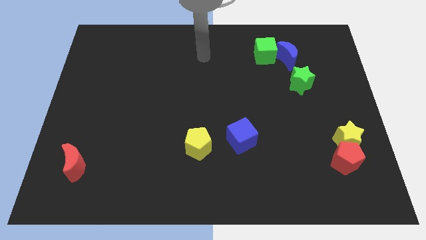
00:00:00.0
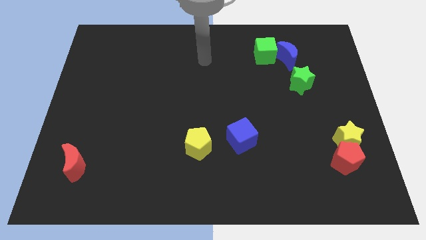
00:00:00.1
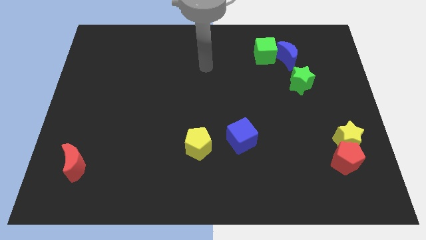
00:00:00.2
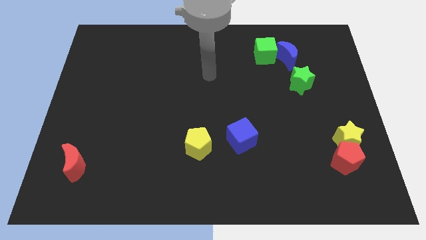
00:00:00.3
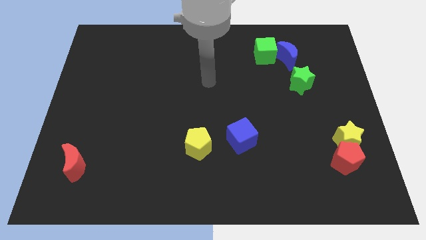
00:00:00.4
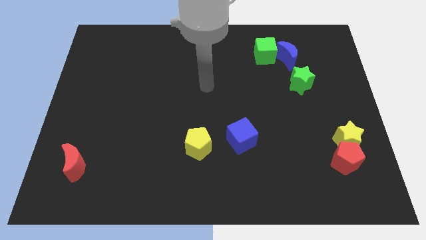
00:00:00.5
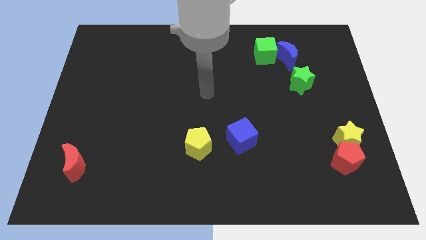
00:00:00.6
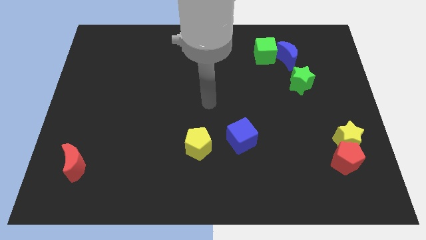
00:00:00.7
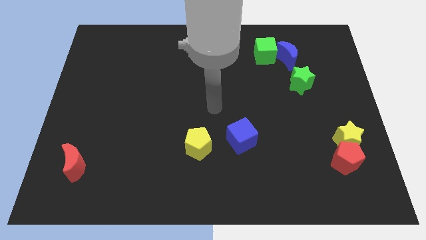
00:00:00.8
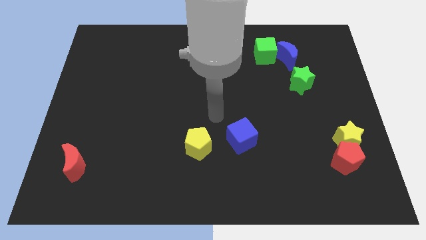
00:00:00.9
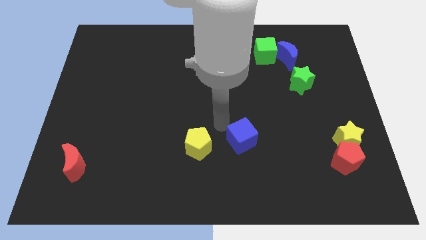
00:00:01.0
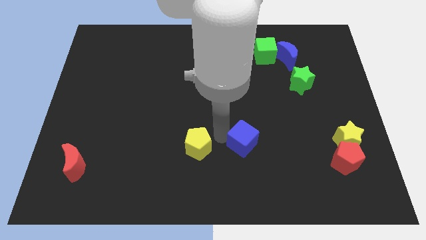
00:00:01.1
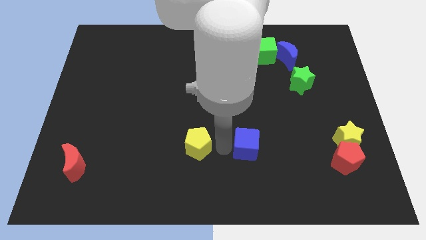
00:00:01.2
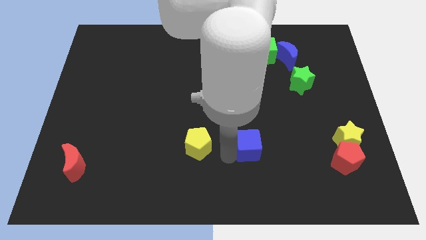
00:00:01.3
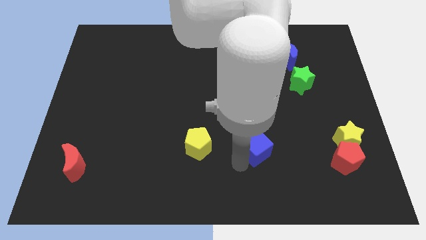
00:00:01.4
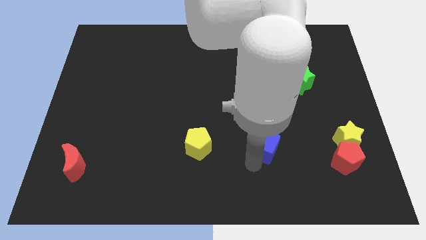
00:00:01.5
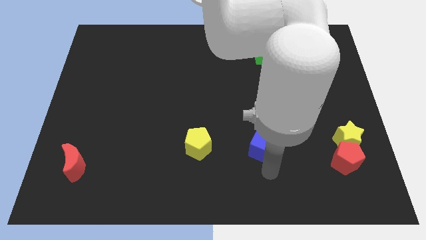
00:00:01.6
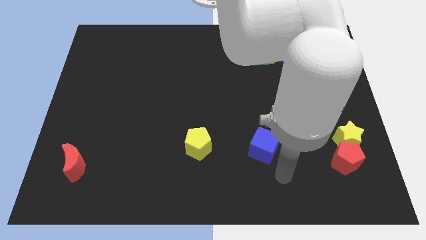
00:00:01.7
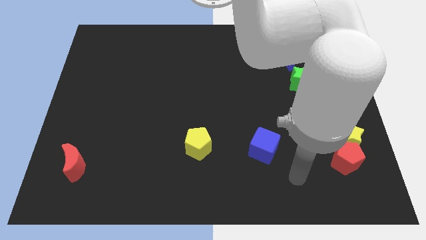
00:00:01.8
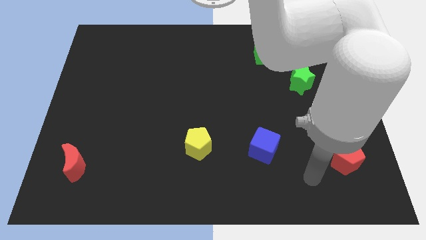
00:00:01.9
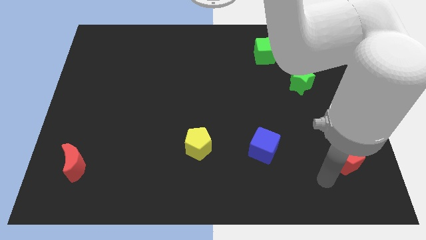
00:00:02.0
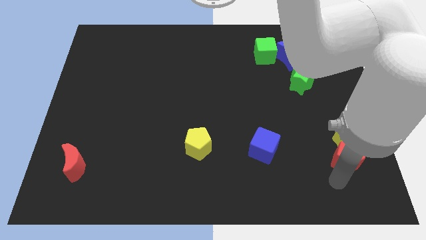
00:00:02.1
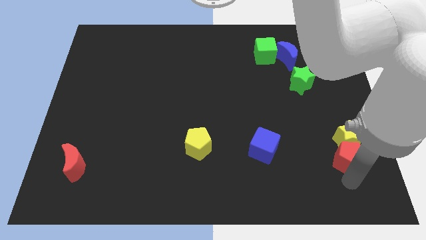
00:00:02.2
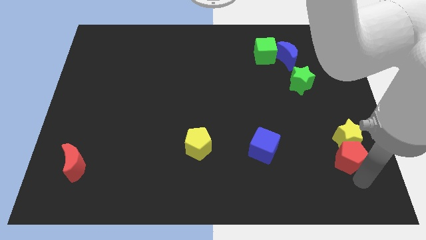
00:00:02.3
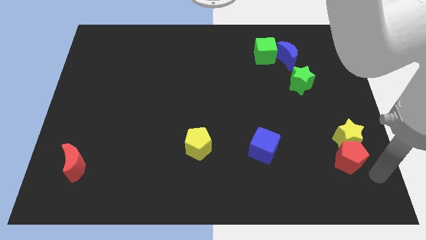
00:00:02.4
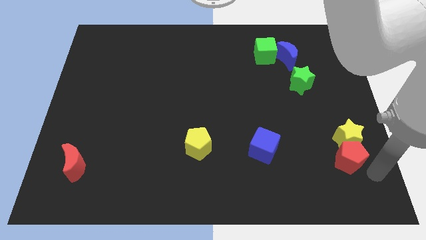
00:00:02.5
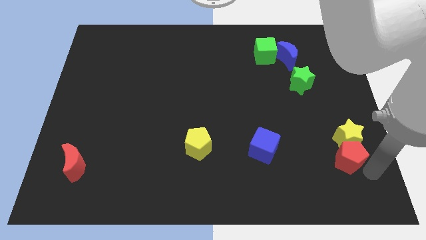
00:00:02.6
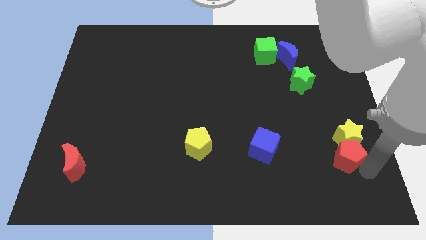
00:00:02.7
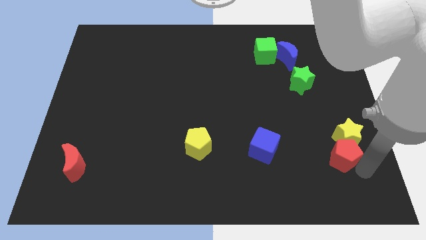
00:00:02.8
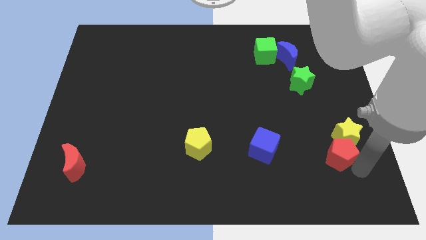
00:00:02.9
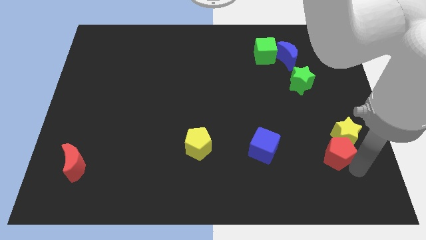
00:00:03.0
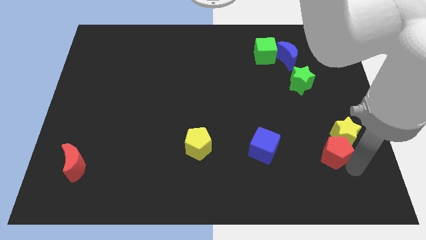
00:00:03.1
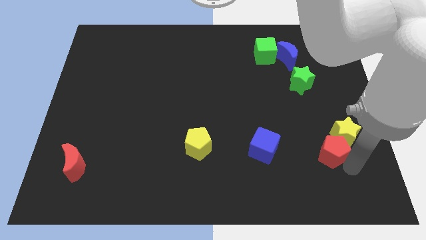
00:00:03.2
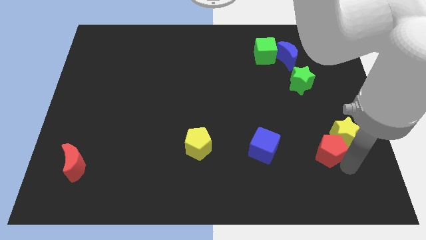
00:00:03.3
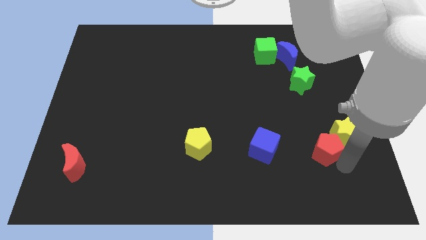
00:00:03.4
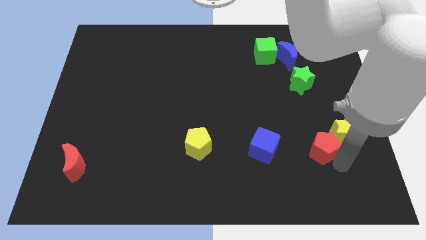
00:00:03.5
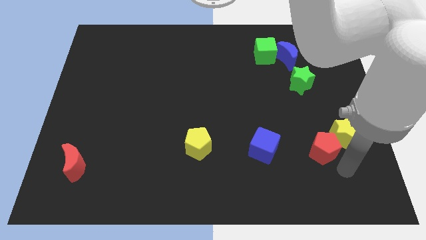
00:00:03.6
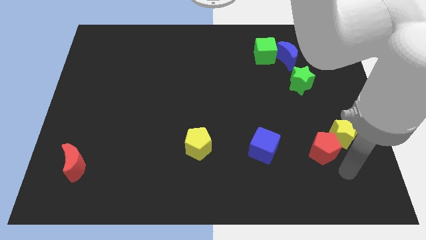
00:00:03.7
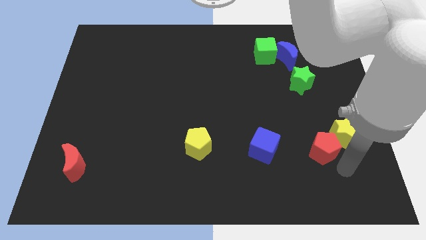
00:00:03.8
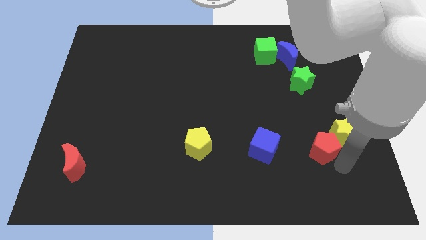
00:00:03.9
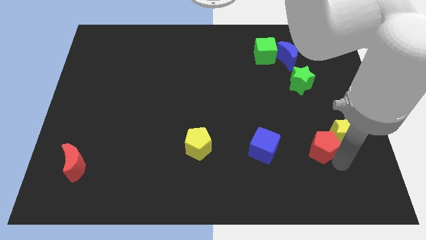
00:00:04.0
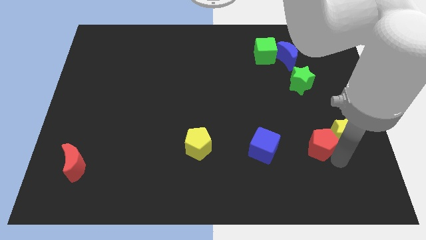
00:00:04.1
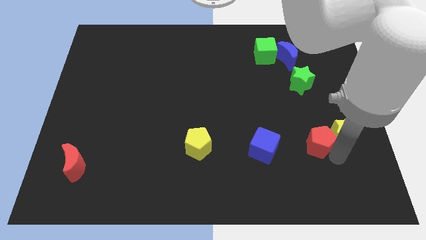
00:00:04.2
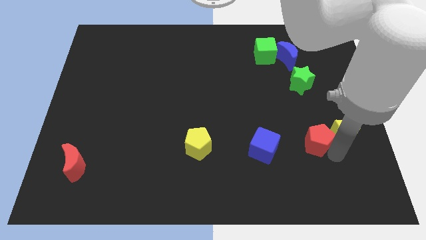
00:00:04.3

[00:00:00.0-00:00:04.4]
slide the red pentagon a little diagonally up and to the left

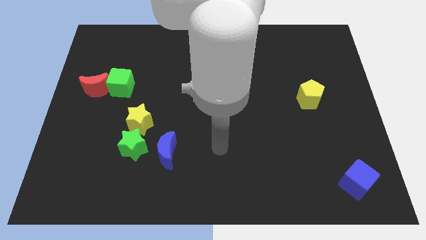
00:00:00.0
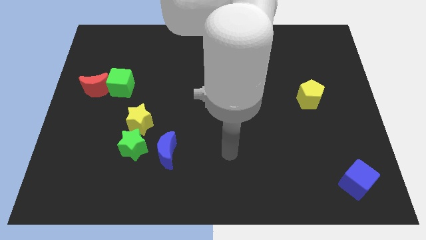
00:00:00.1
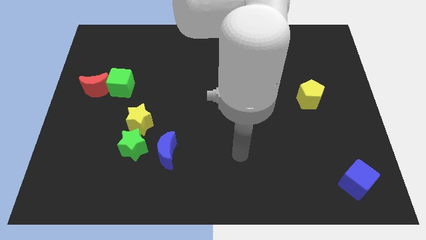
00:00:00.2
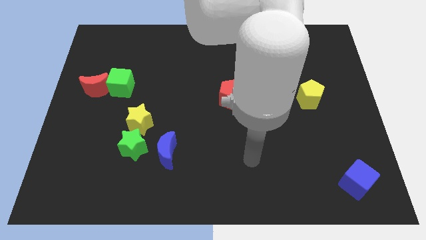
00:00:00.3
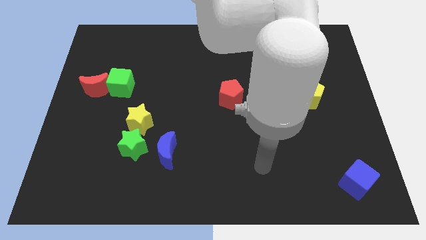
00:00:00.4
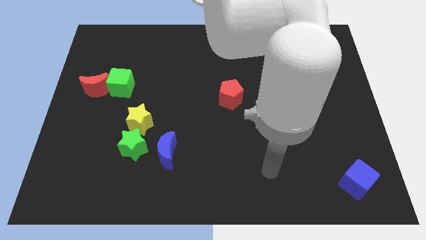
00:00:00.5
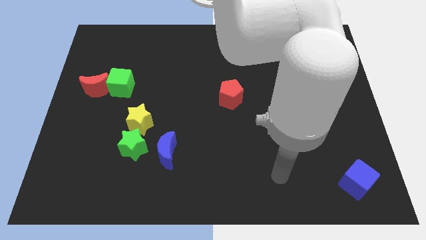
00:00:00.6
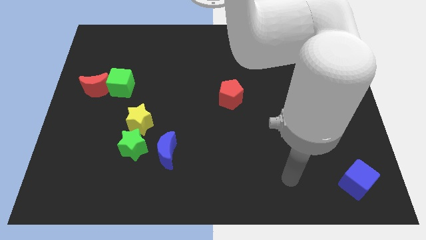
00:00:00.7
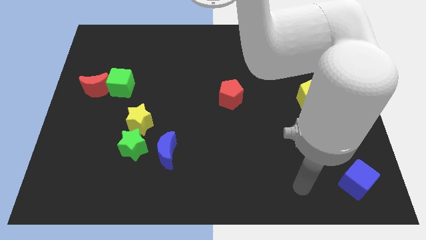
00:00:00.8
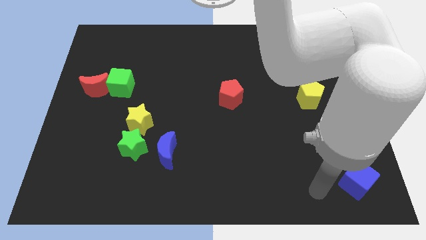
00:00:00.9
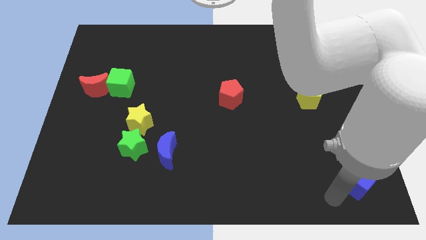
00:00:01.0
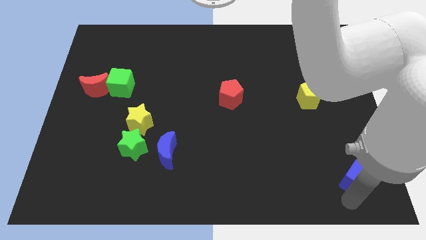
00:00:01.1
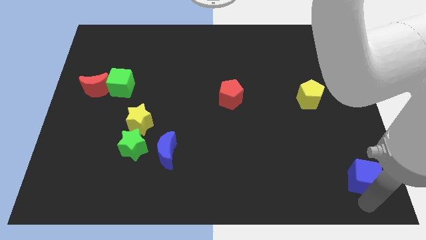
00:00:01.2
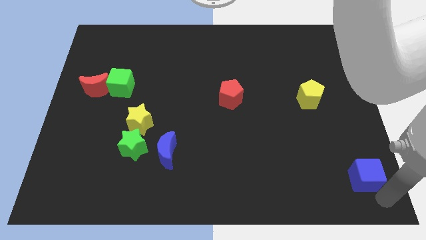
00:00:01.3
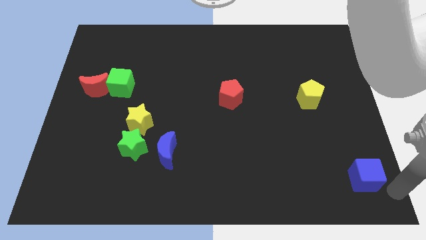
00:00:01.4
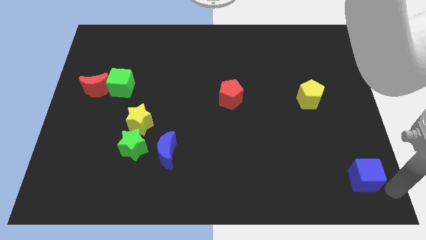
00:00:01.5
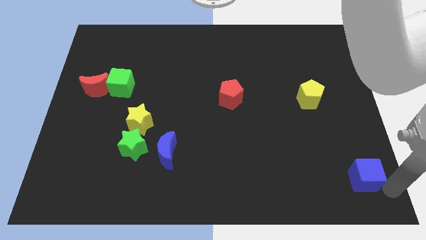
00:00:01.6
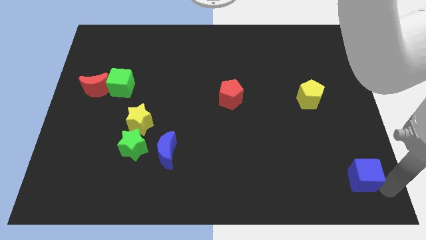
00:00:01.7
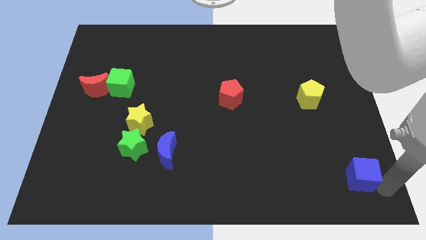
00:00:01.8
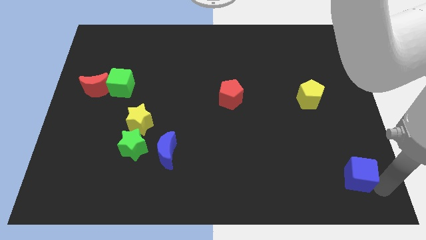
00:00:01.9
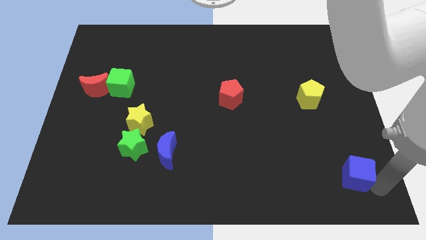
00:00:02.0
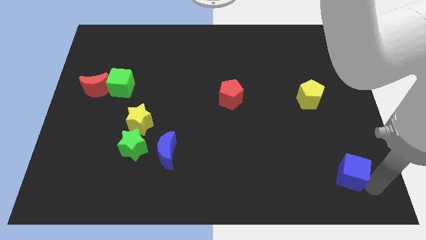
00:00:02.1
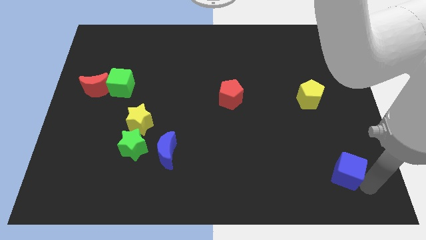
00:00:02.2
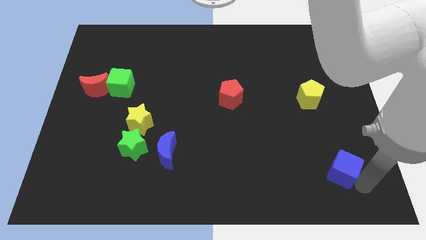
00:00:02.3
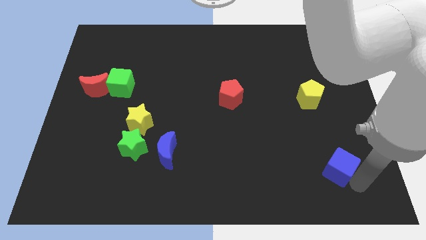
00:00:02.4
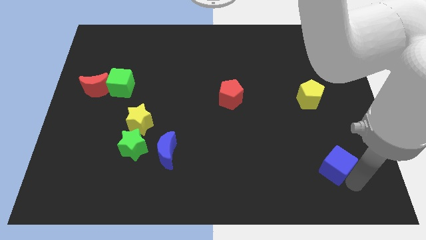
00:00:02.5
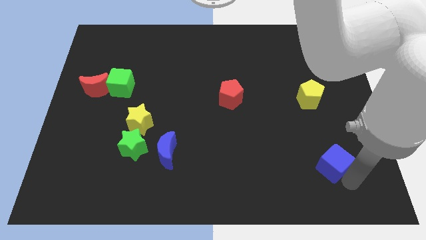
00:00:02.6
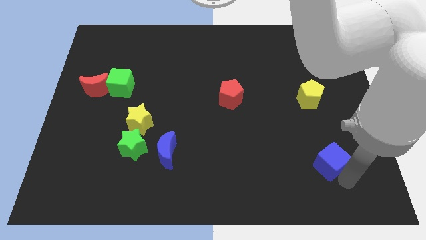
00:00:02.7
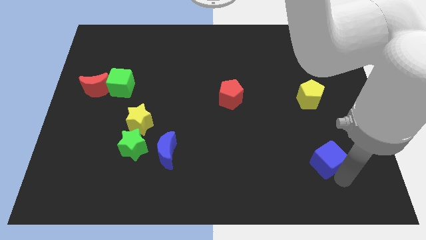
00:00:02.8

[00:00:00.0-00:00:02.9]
slightly slide the blue cube up and left

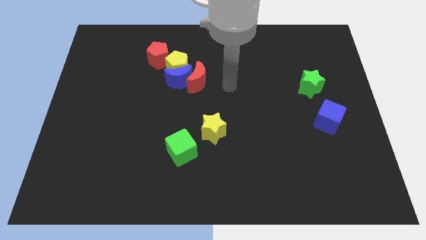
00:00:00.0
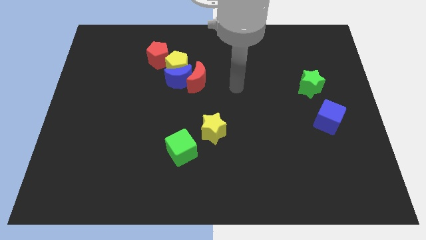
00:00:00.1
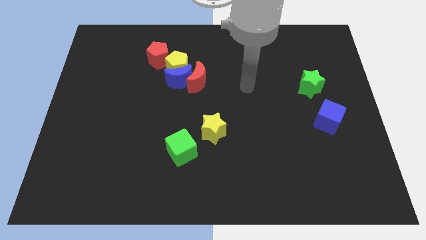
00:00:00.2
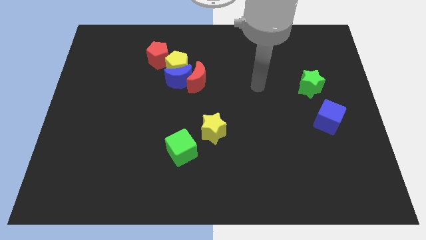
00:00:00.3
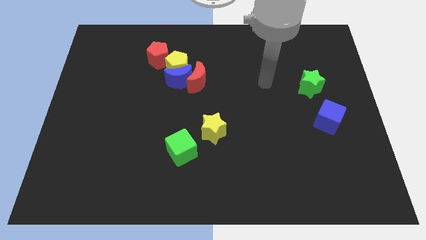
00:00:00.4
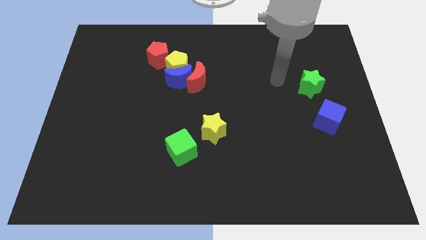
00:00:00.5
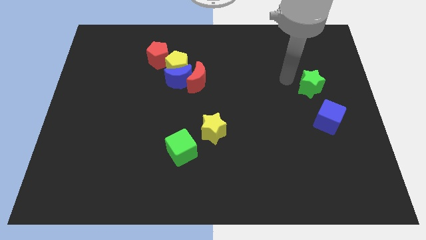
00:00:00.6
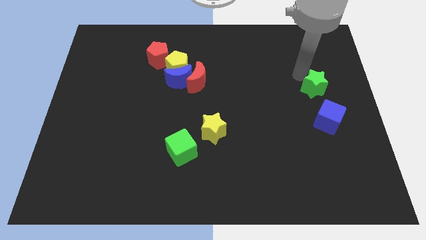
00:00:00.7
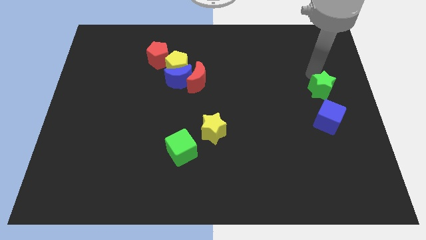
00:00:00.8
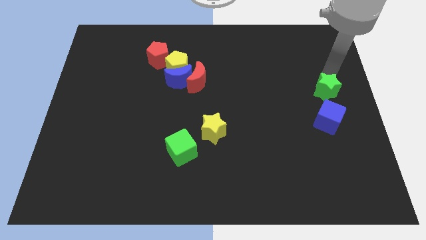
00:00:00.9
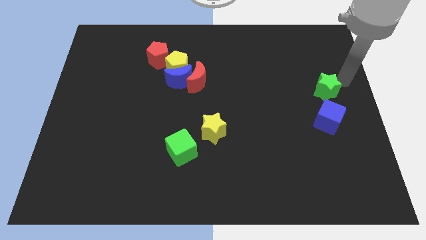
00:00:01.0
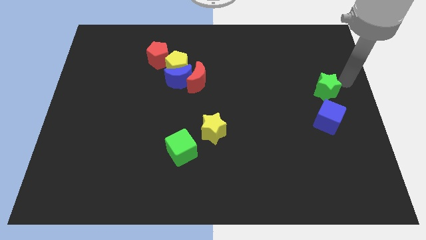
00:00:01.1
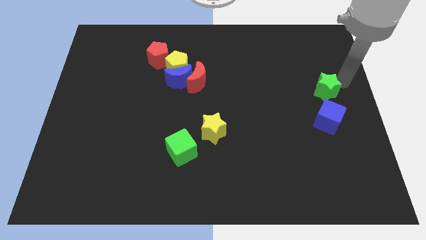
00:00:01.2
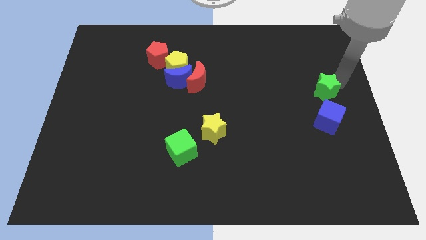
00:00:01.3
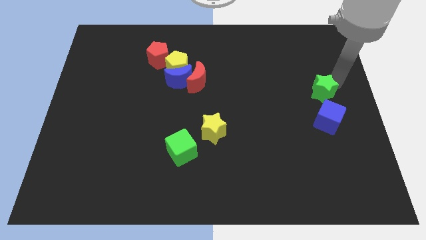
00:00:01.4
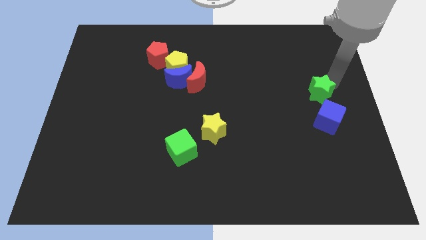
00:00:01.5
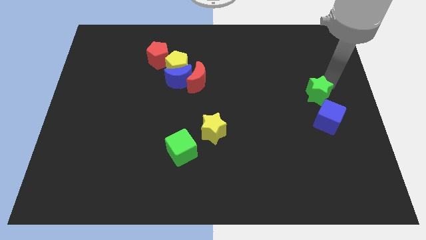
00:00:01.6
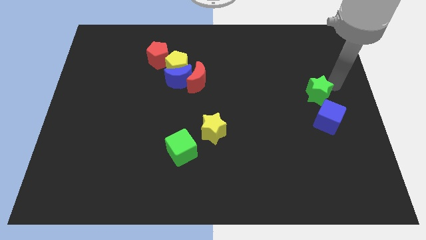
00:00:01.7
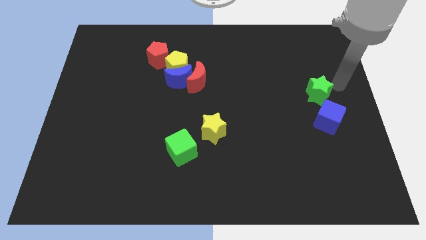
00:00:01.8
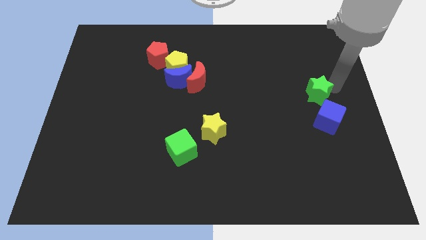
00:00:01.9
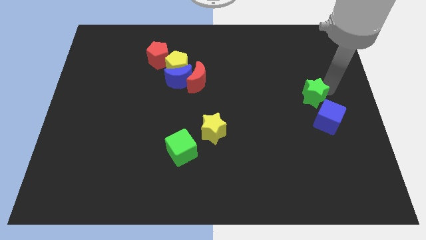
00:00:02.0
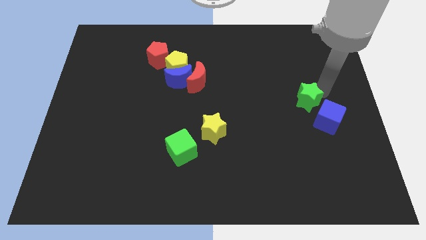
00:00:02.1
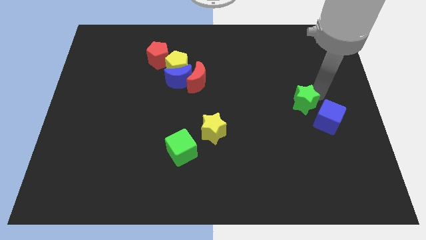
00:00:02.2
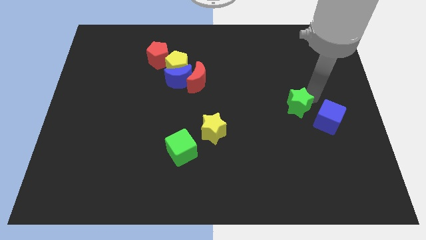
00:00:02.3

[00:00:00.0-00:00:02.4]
slightly move the green star diagonally down and left
